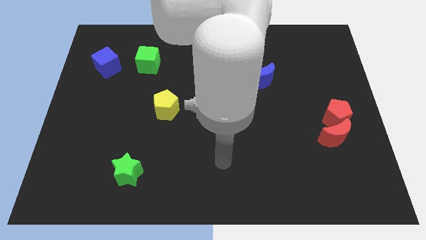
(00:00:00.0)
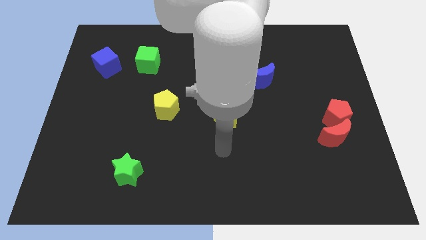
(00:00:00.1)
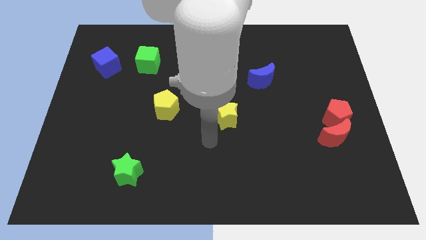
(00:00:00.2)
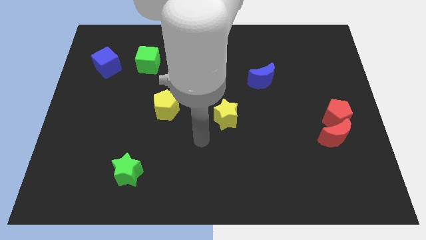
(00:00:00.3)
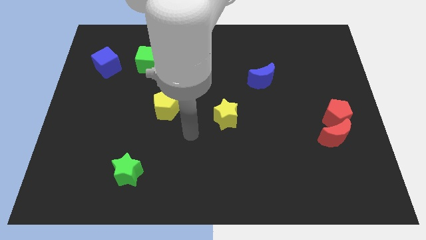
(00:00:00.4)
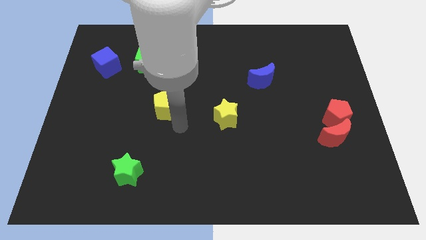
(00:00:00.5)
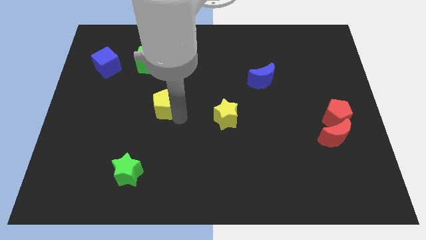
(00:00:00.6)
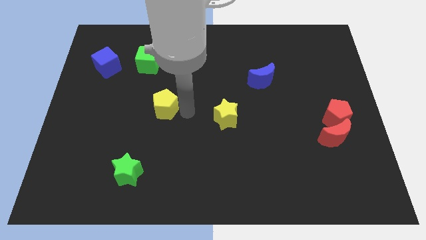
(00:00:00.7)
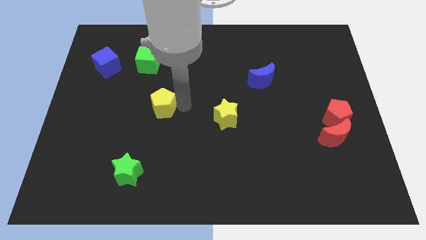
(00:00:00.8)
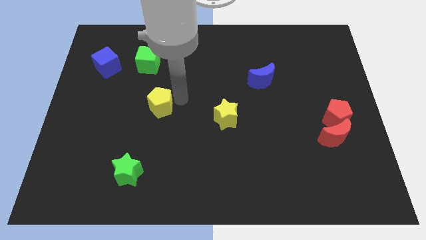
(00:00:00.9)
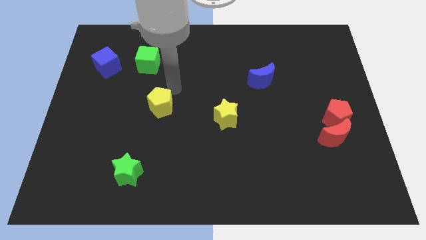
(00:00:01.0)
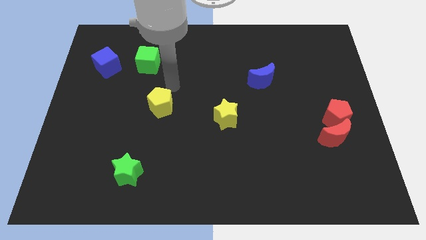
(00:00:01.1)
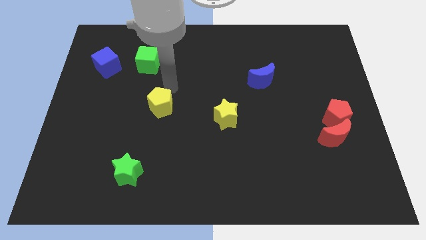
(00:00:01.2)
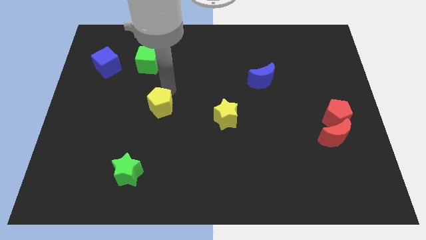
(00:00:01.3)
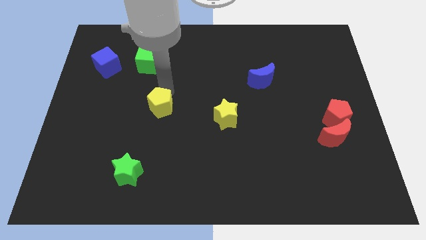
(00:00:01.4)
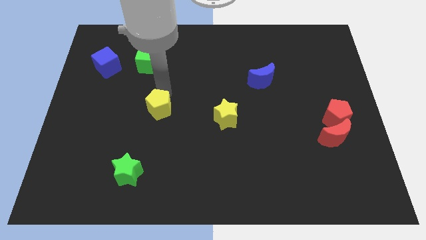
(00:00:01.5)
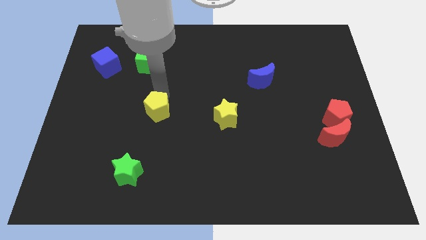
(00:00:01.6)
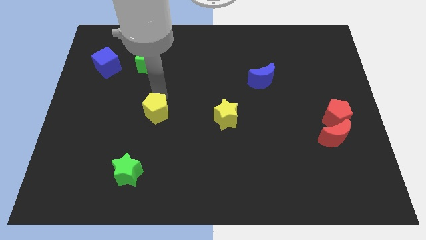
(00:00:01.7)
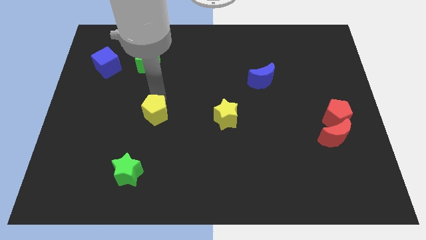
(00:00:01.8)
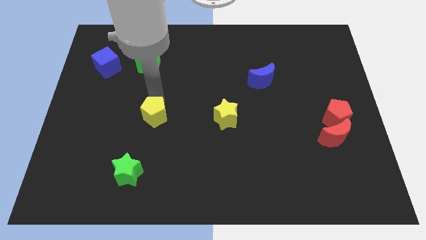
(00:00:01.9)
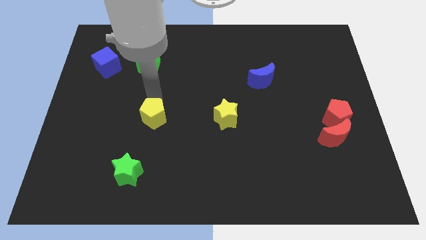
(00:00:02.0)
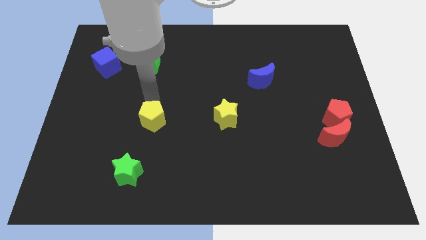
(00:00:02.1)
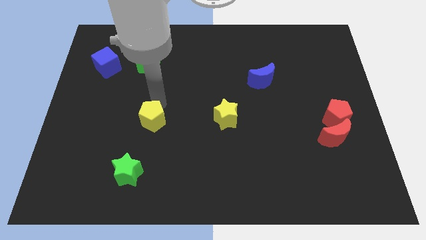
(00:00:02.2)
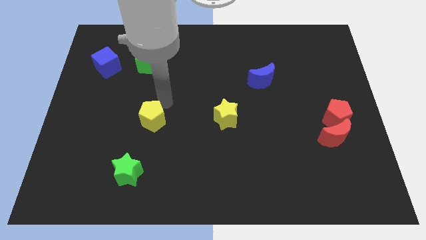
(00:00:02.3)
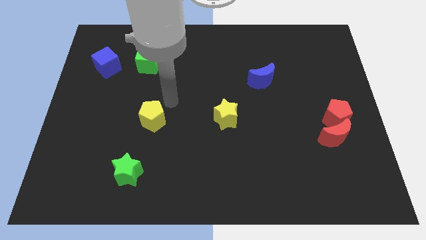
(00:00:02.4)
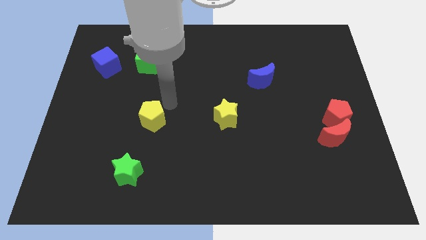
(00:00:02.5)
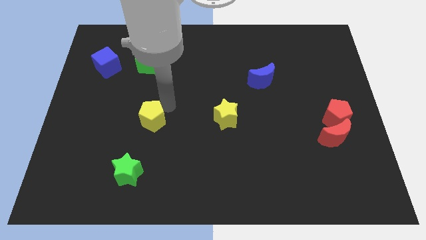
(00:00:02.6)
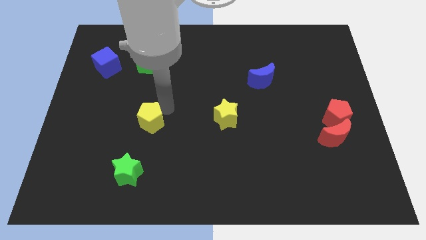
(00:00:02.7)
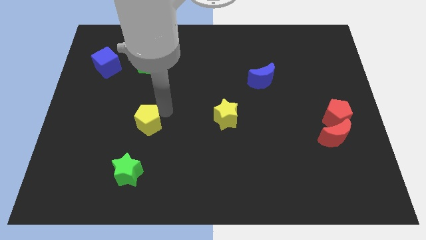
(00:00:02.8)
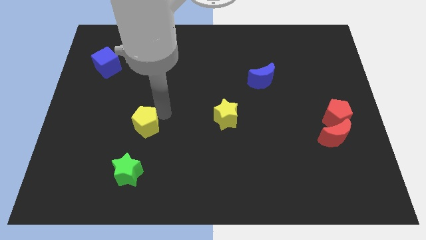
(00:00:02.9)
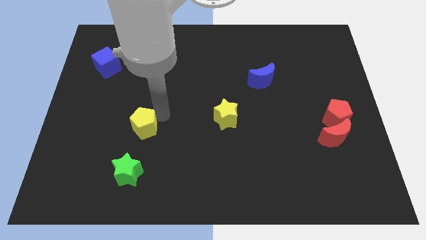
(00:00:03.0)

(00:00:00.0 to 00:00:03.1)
slide the yellow pentagon down and left diagonally slightly

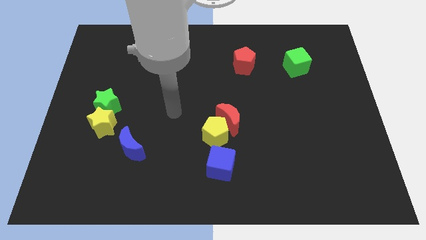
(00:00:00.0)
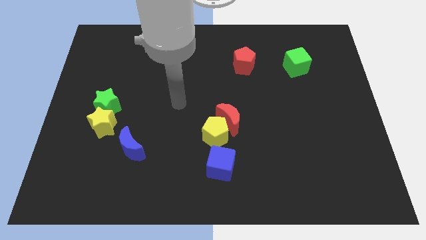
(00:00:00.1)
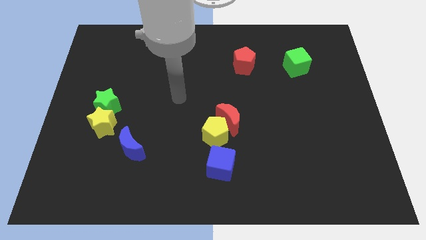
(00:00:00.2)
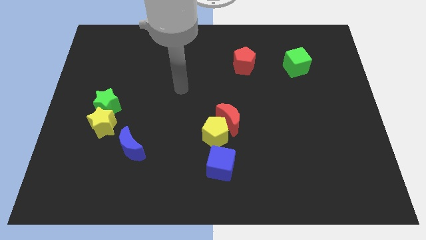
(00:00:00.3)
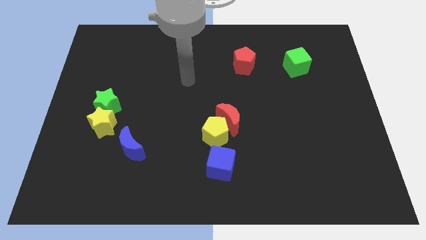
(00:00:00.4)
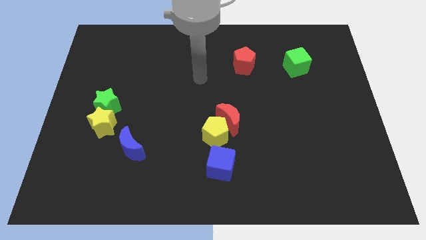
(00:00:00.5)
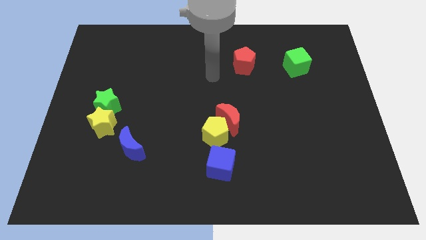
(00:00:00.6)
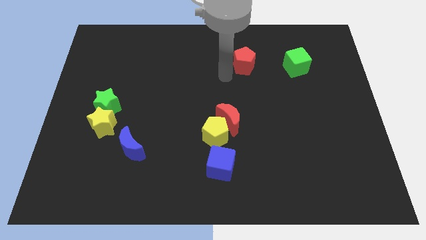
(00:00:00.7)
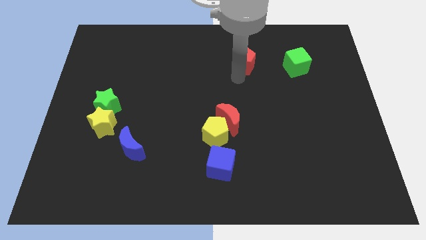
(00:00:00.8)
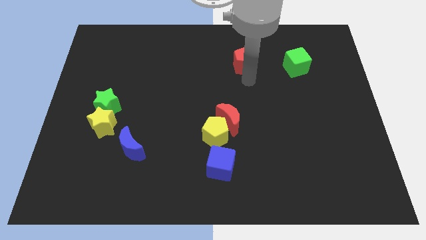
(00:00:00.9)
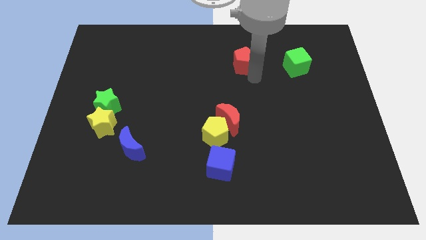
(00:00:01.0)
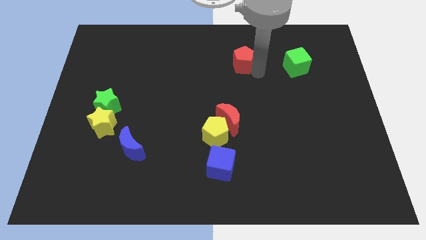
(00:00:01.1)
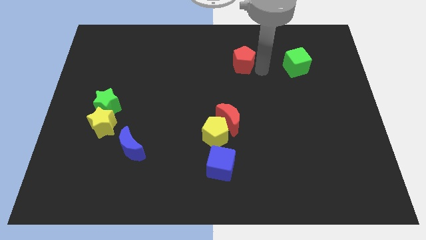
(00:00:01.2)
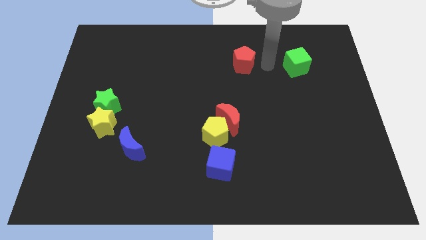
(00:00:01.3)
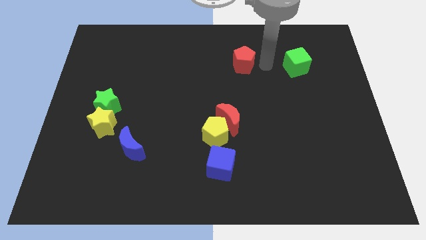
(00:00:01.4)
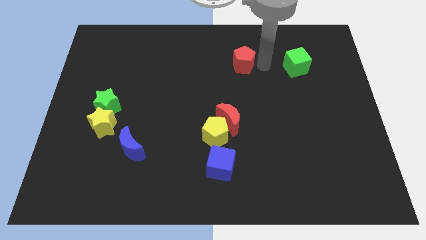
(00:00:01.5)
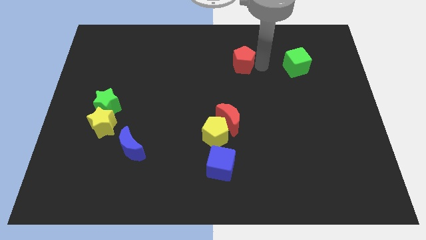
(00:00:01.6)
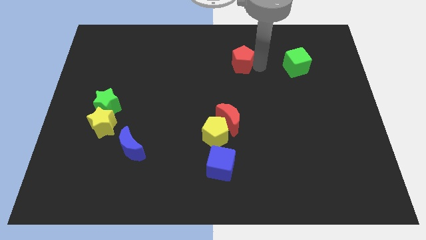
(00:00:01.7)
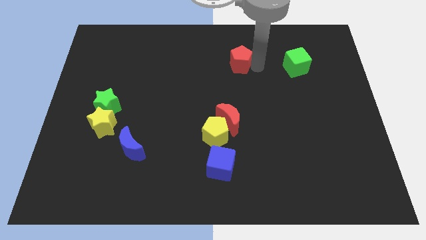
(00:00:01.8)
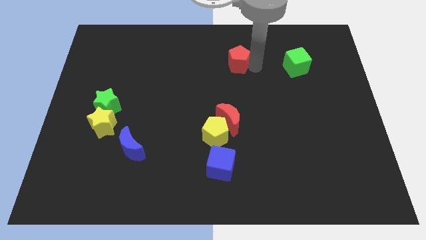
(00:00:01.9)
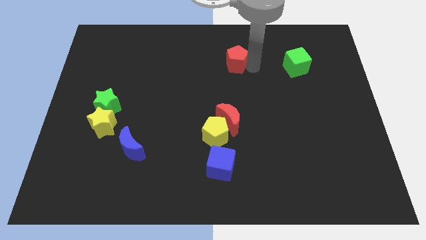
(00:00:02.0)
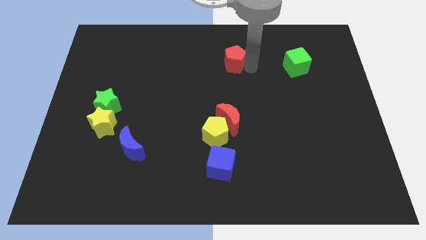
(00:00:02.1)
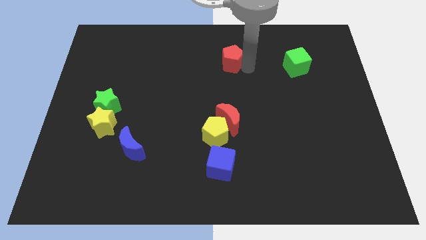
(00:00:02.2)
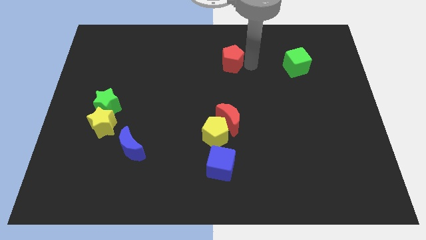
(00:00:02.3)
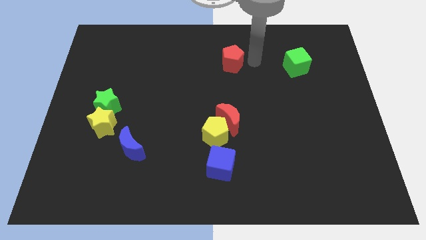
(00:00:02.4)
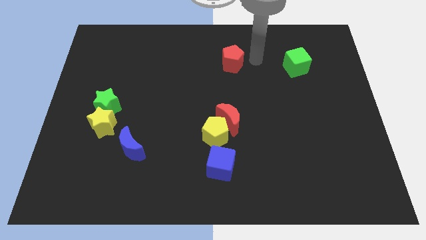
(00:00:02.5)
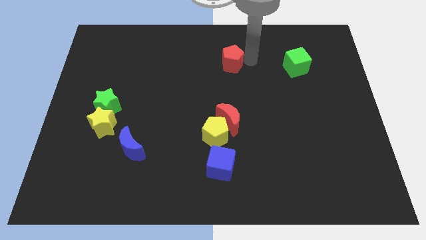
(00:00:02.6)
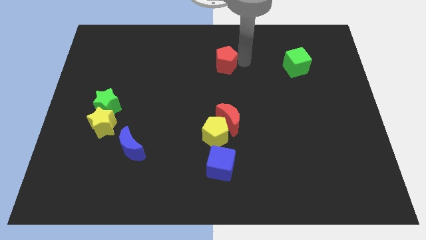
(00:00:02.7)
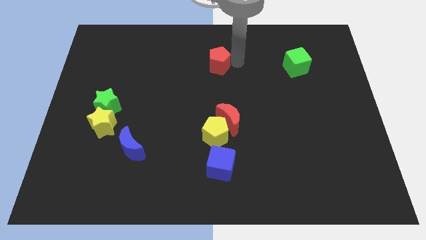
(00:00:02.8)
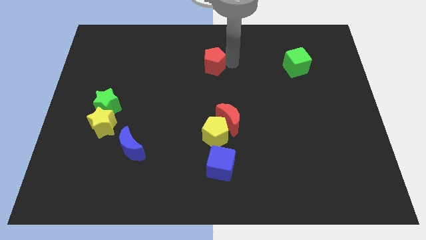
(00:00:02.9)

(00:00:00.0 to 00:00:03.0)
move the red pentagon a bit to the left

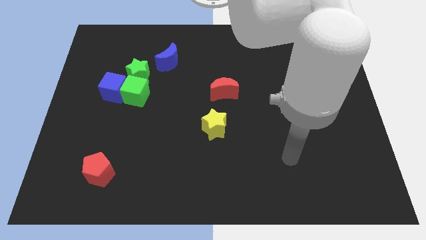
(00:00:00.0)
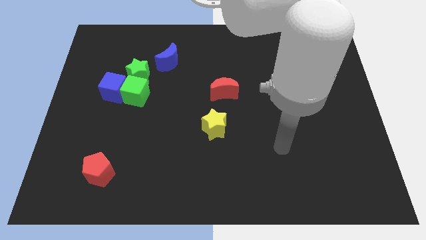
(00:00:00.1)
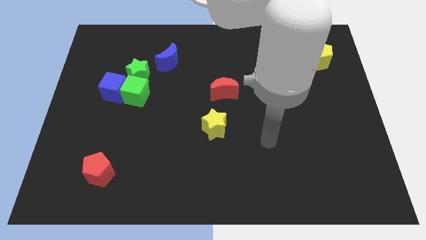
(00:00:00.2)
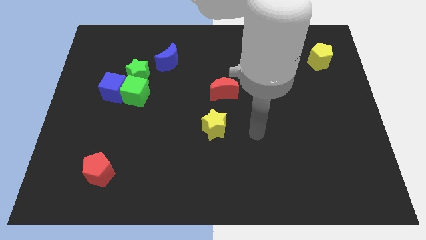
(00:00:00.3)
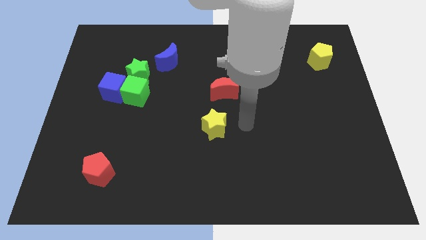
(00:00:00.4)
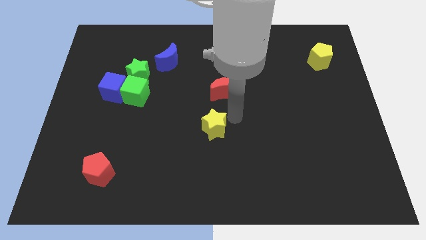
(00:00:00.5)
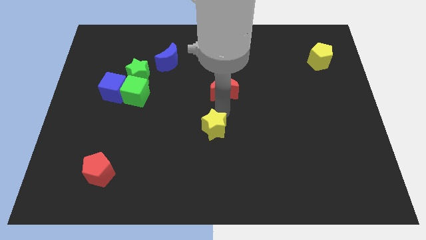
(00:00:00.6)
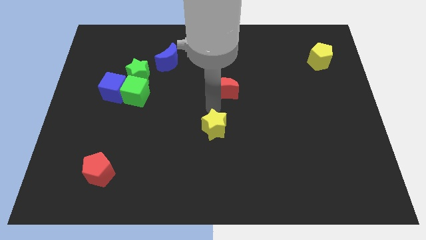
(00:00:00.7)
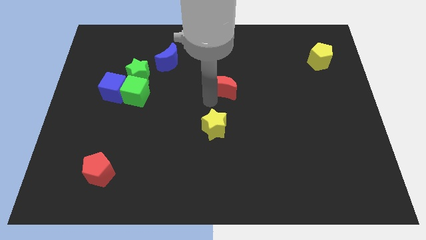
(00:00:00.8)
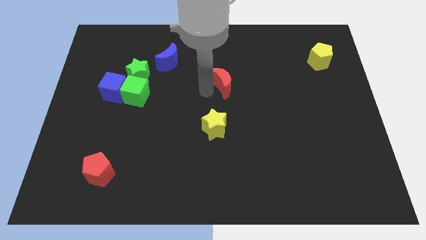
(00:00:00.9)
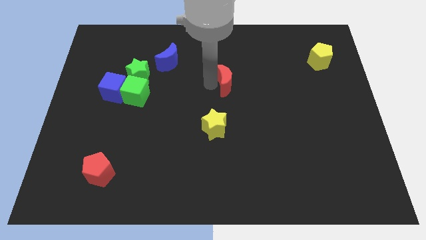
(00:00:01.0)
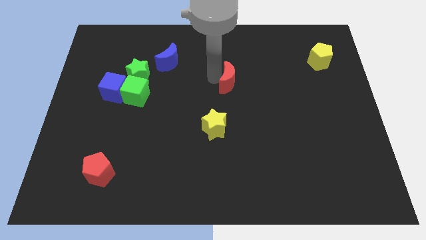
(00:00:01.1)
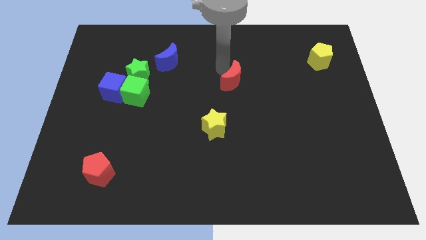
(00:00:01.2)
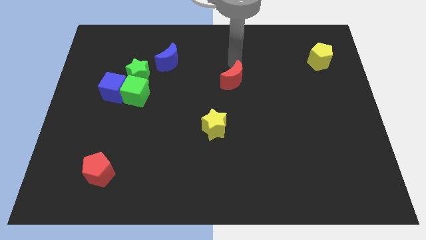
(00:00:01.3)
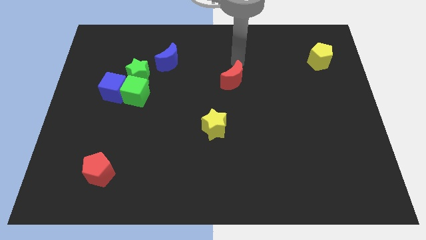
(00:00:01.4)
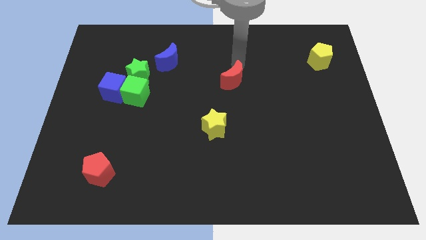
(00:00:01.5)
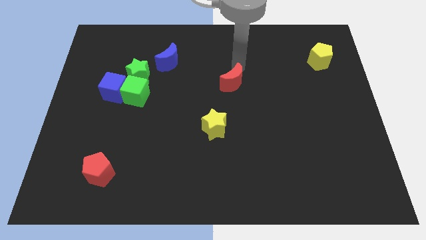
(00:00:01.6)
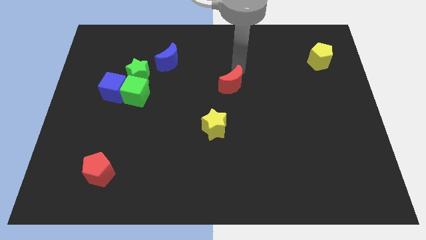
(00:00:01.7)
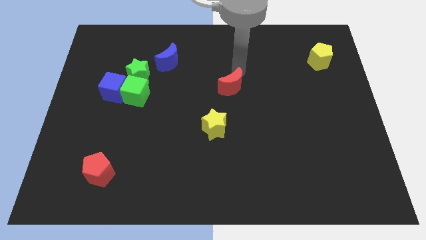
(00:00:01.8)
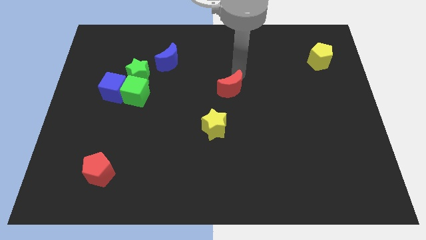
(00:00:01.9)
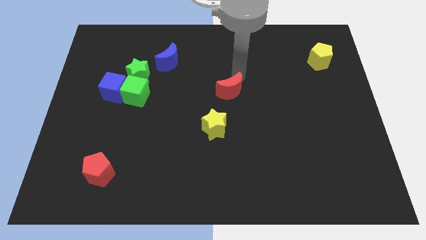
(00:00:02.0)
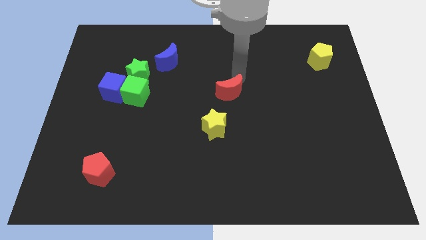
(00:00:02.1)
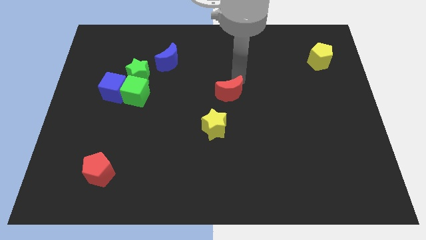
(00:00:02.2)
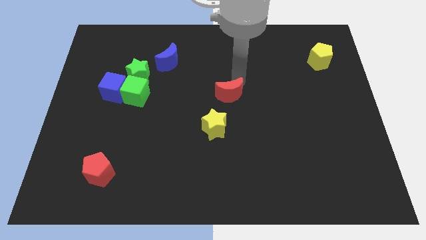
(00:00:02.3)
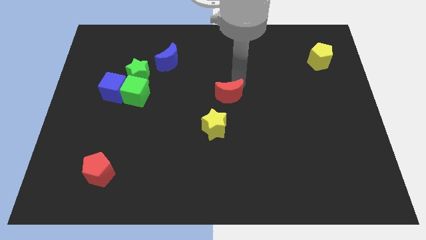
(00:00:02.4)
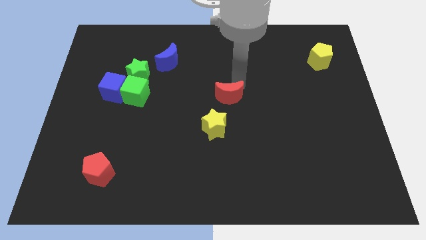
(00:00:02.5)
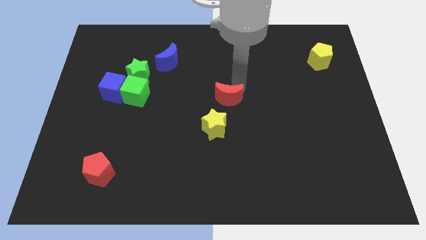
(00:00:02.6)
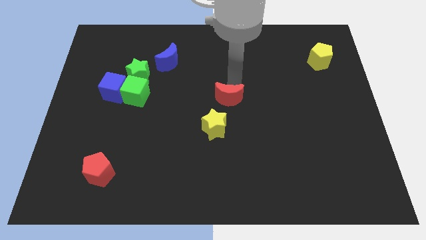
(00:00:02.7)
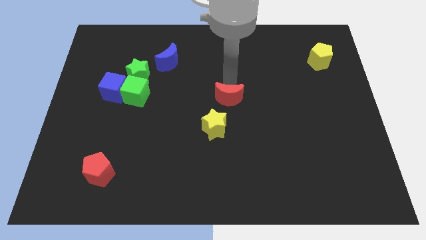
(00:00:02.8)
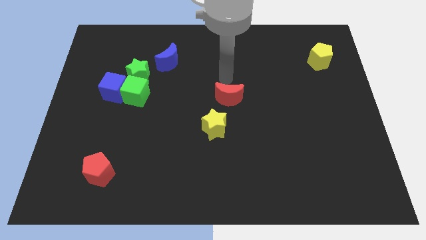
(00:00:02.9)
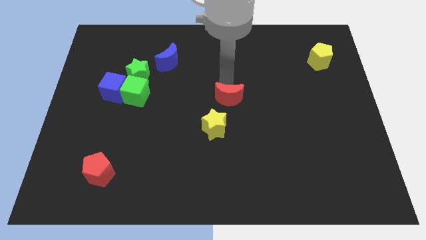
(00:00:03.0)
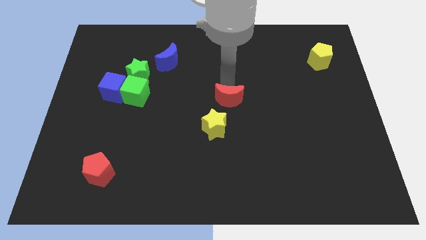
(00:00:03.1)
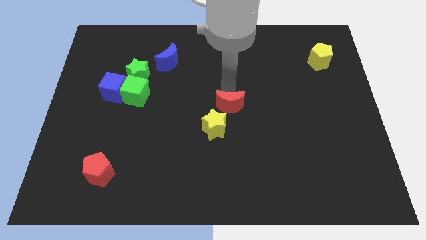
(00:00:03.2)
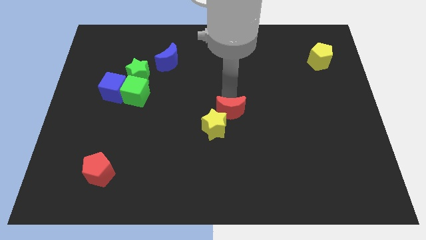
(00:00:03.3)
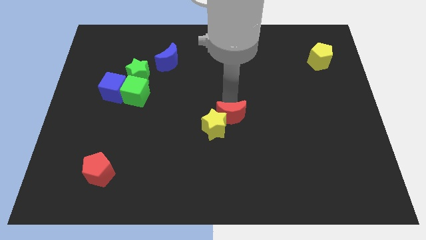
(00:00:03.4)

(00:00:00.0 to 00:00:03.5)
push the red moon somewhat downwards
